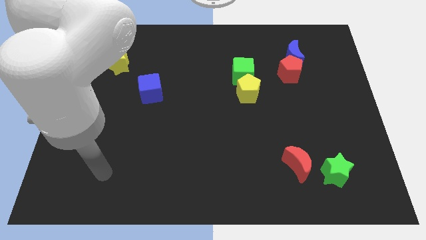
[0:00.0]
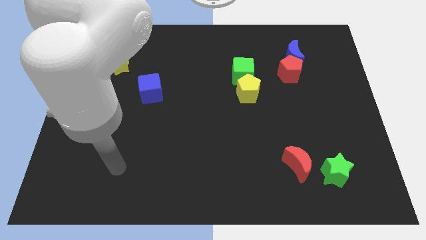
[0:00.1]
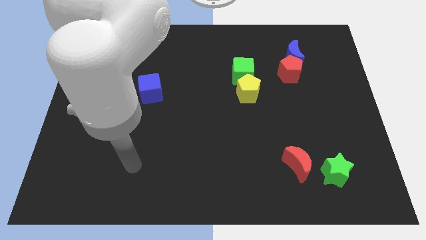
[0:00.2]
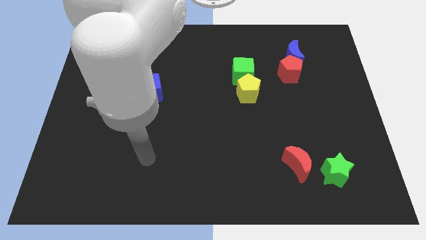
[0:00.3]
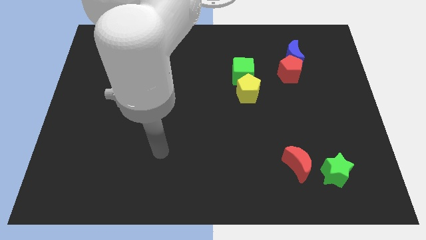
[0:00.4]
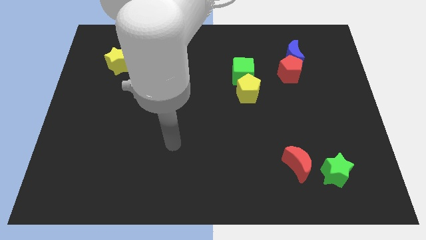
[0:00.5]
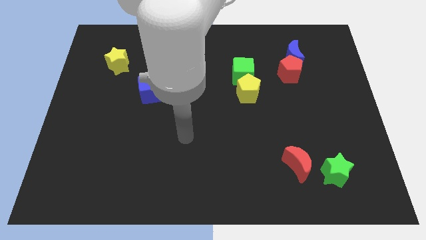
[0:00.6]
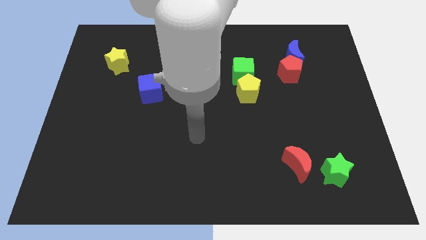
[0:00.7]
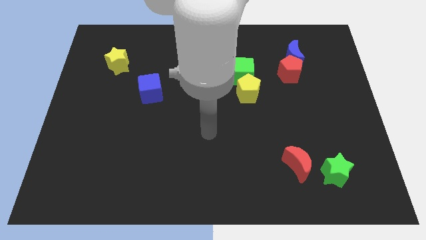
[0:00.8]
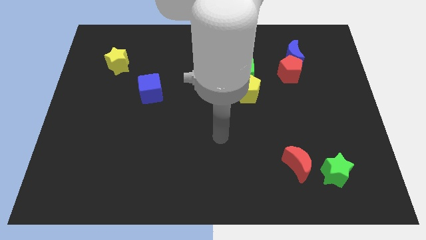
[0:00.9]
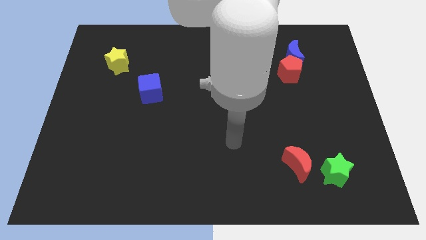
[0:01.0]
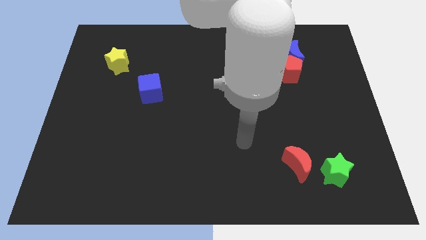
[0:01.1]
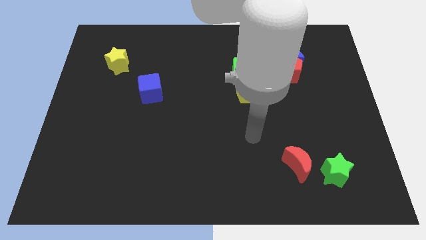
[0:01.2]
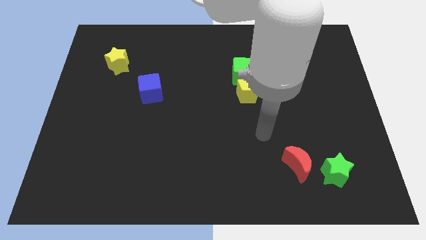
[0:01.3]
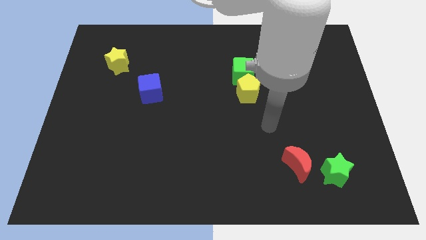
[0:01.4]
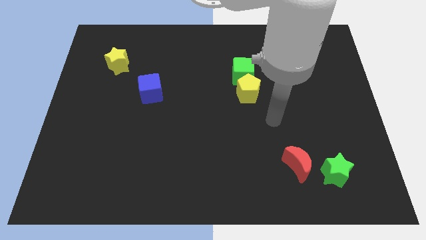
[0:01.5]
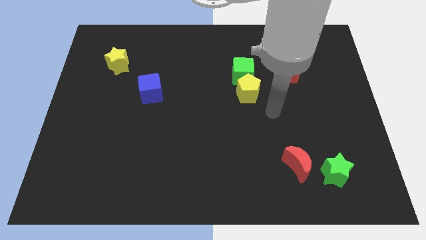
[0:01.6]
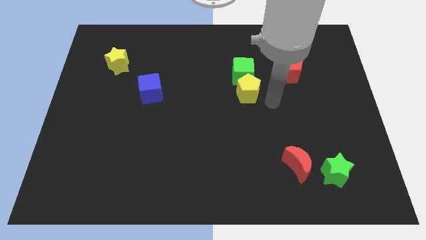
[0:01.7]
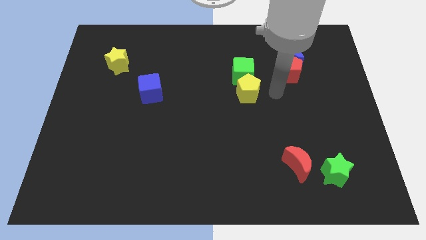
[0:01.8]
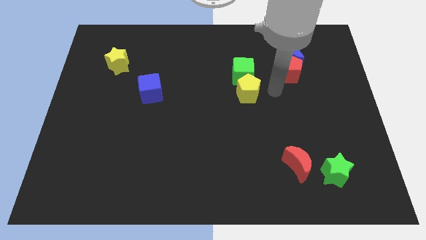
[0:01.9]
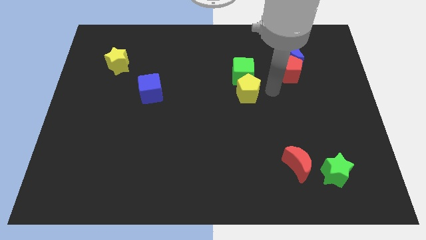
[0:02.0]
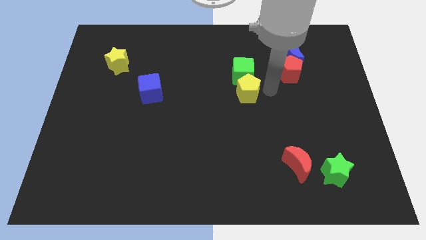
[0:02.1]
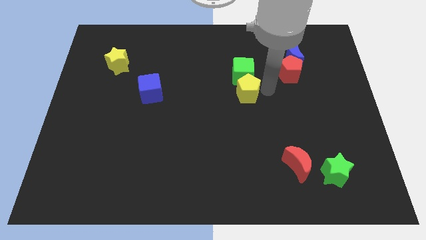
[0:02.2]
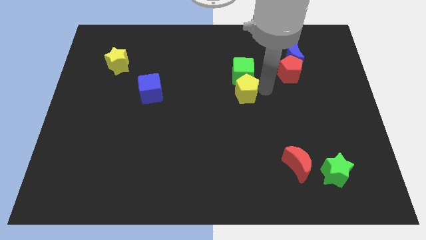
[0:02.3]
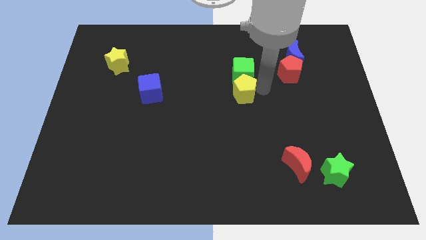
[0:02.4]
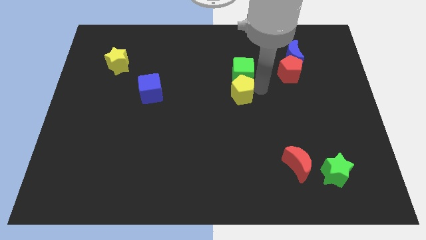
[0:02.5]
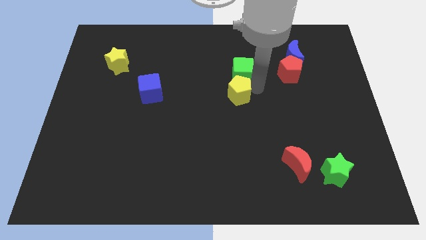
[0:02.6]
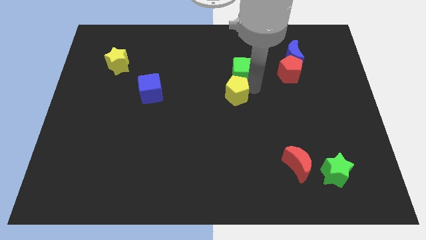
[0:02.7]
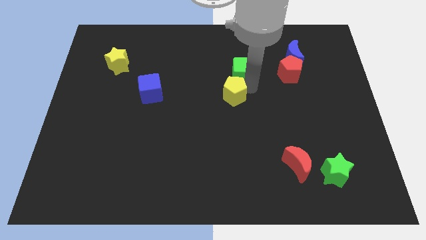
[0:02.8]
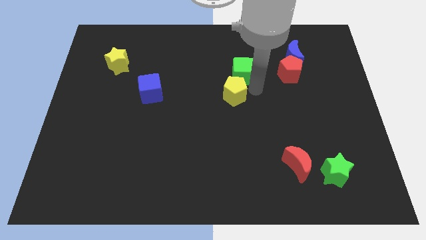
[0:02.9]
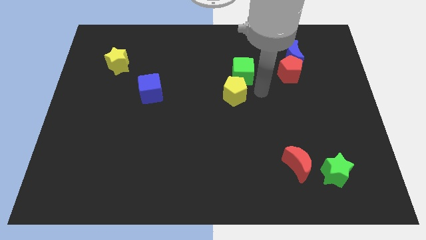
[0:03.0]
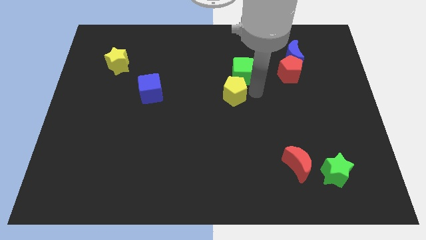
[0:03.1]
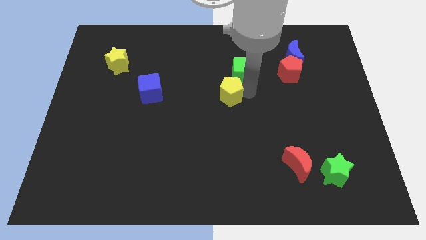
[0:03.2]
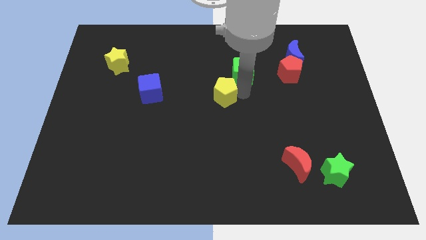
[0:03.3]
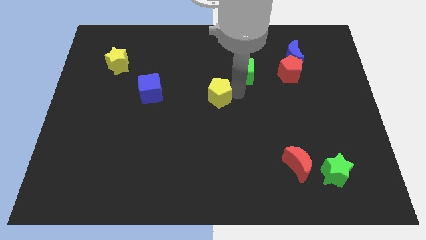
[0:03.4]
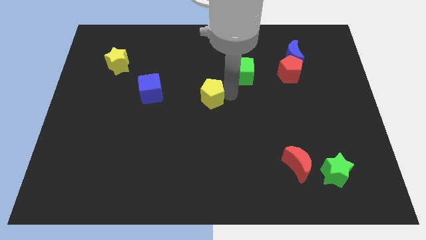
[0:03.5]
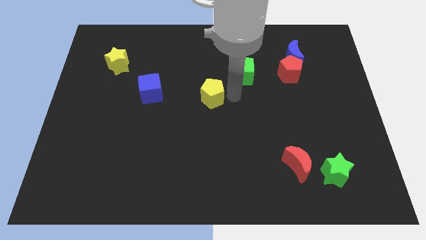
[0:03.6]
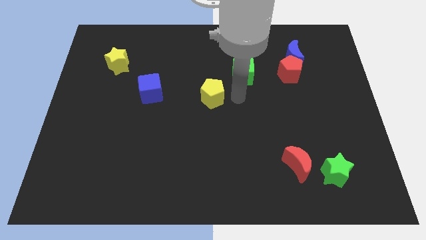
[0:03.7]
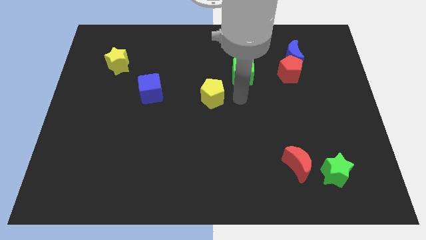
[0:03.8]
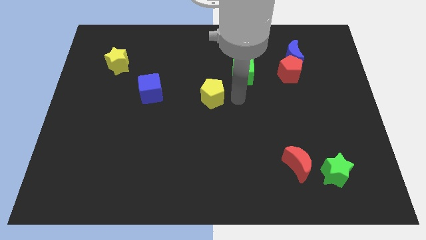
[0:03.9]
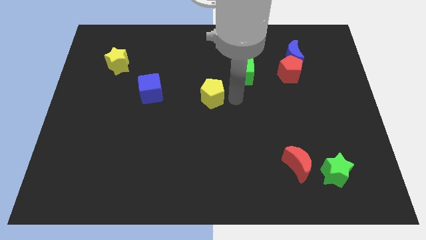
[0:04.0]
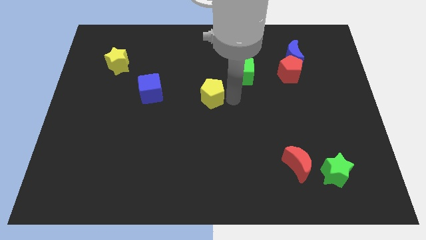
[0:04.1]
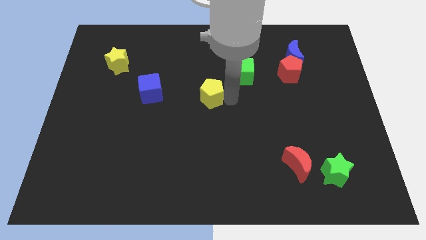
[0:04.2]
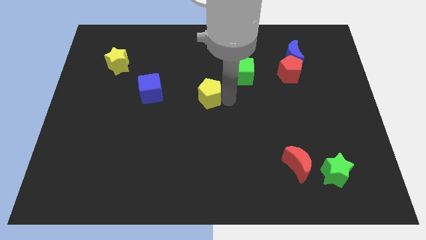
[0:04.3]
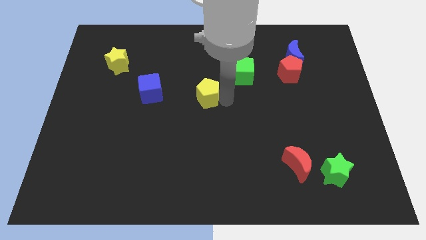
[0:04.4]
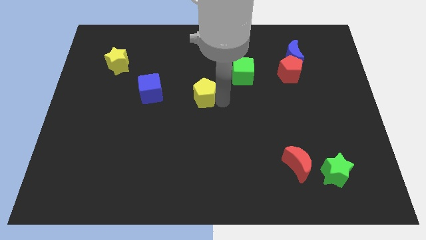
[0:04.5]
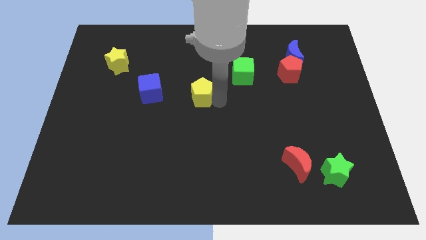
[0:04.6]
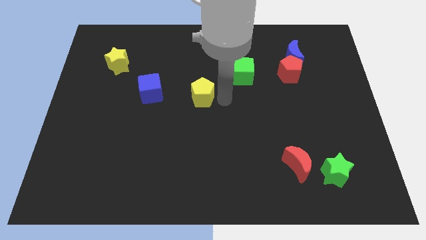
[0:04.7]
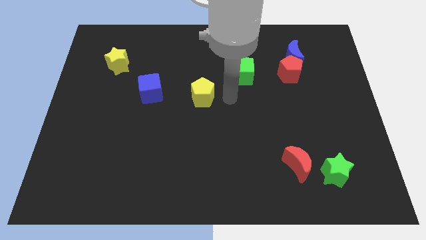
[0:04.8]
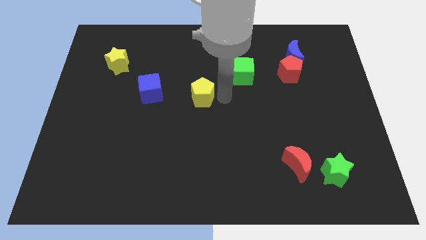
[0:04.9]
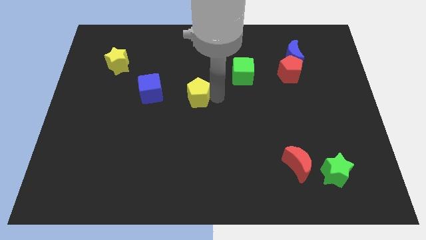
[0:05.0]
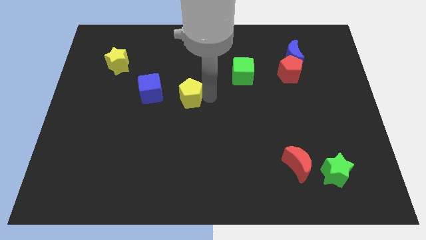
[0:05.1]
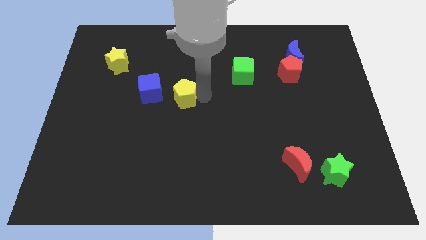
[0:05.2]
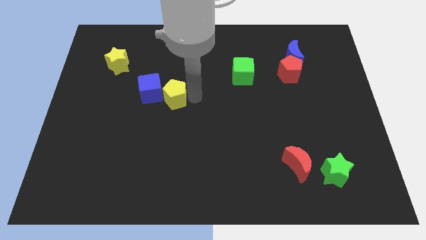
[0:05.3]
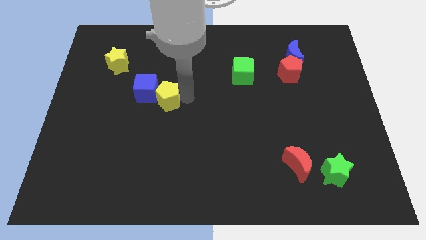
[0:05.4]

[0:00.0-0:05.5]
slide the yellow pentagon to the blue cube

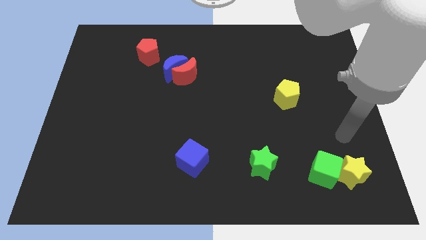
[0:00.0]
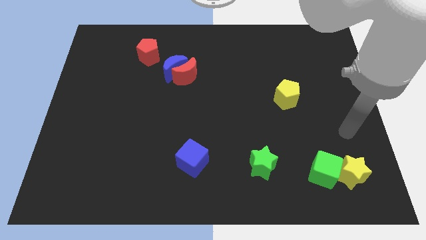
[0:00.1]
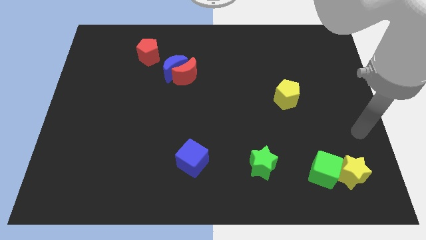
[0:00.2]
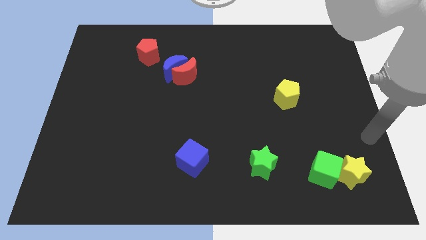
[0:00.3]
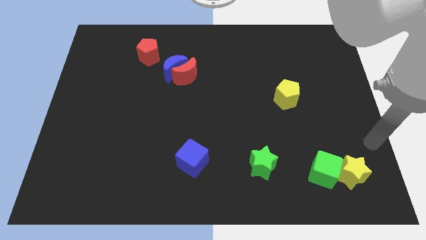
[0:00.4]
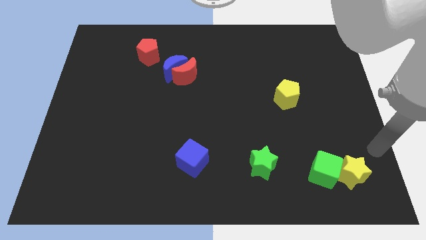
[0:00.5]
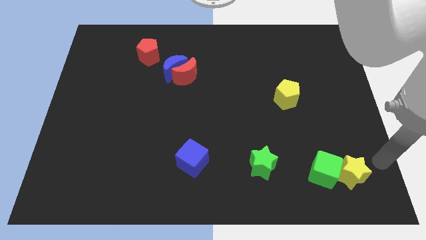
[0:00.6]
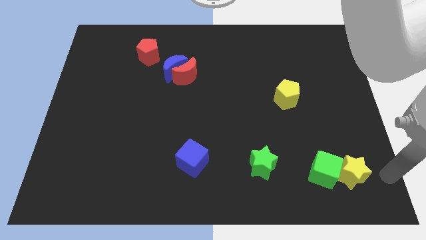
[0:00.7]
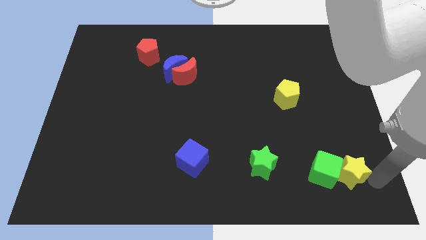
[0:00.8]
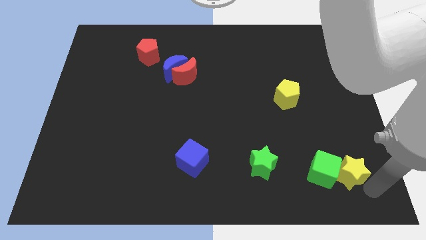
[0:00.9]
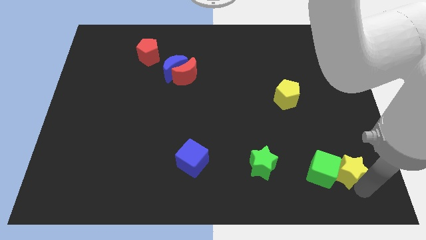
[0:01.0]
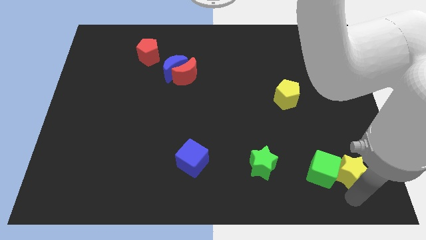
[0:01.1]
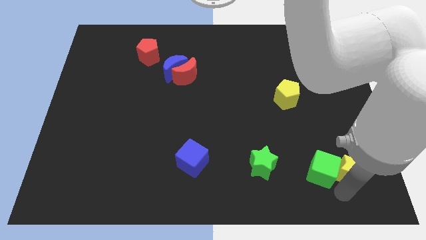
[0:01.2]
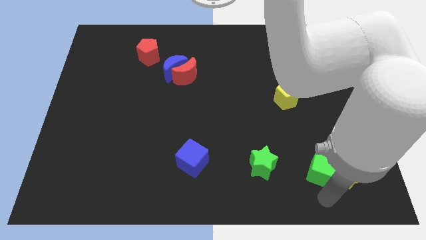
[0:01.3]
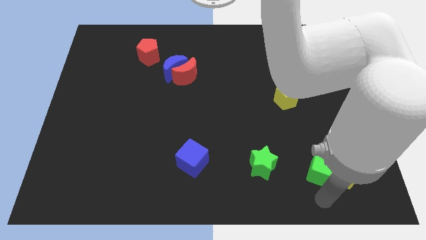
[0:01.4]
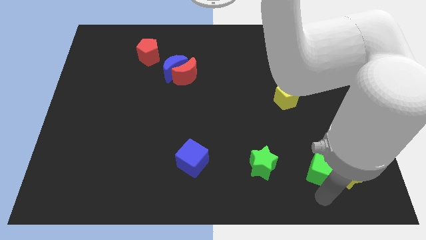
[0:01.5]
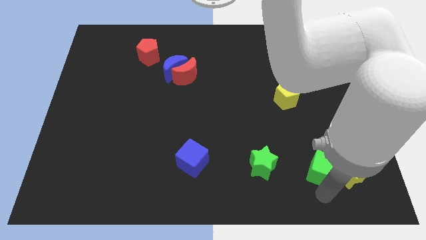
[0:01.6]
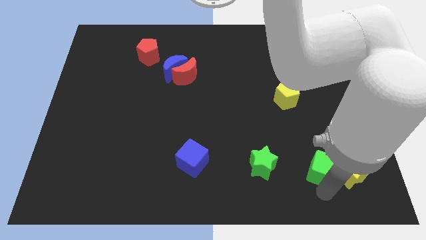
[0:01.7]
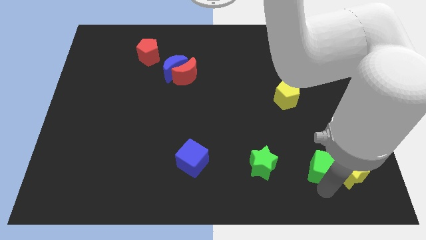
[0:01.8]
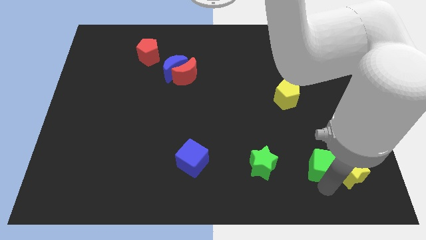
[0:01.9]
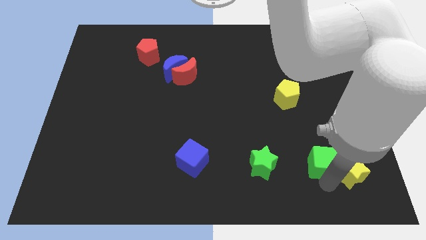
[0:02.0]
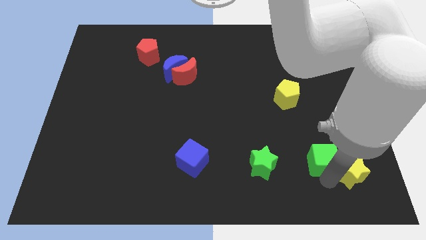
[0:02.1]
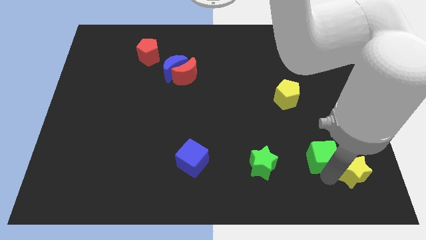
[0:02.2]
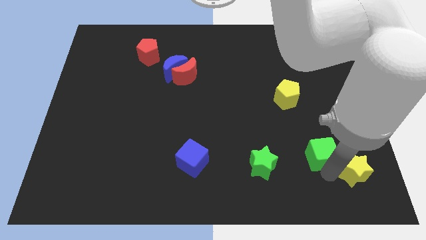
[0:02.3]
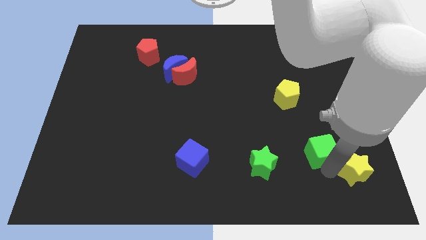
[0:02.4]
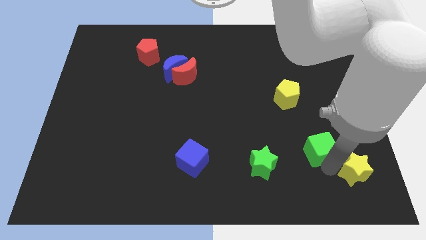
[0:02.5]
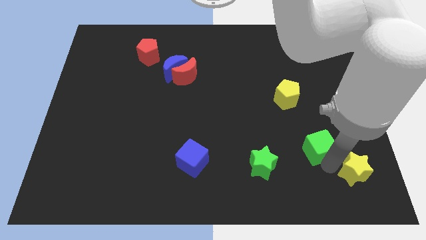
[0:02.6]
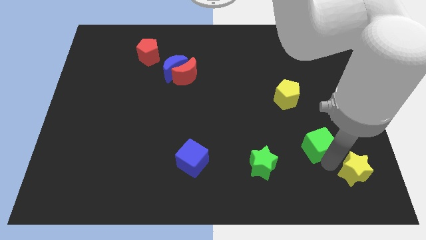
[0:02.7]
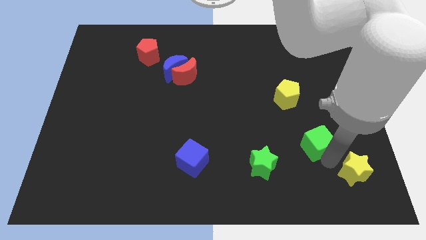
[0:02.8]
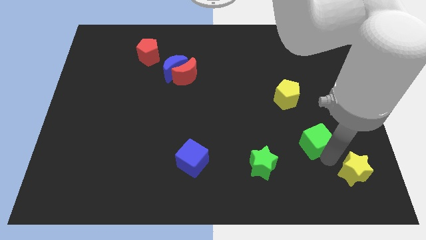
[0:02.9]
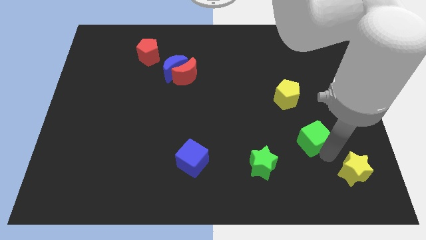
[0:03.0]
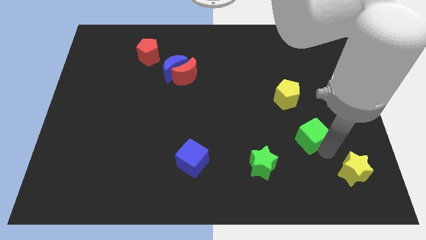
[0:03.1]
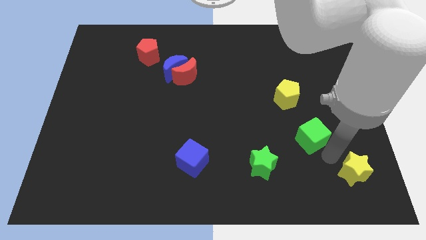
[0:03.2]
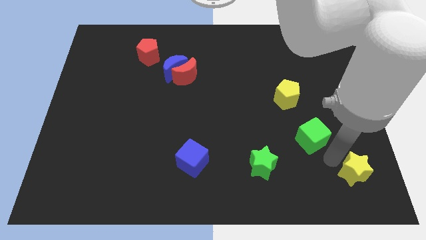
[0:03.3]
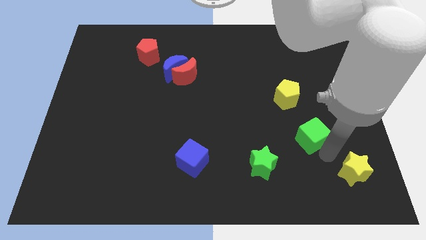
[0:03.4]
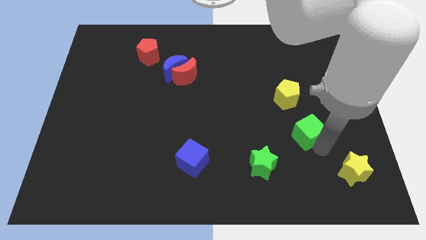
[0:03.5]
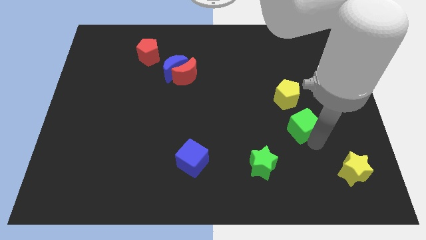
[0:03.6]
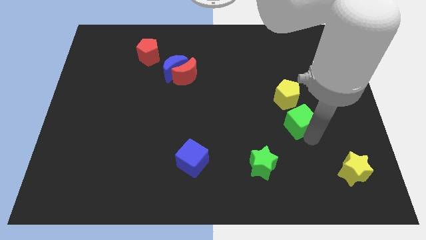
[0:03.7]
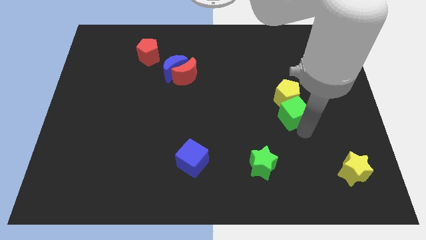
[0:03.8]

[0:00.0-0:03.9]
put the green cube to the yellow pentagon
